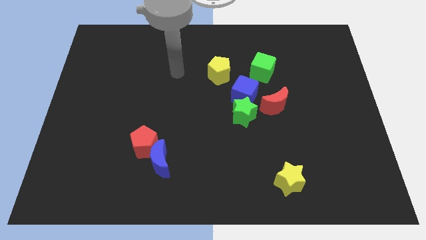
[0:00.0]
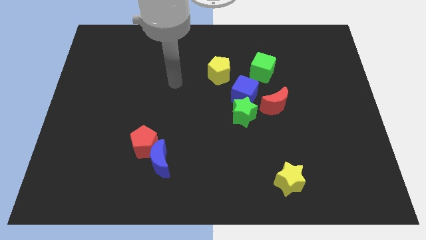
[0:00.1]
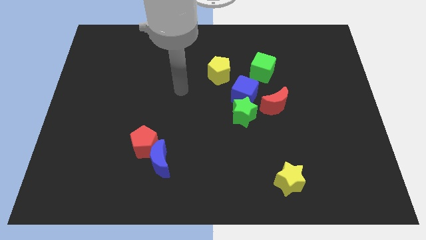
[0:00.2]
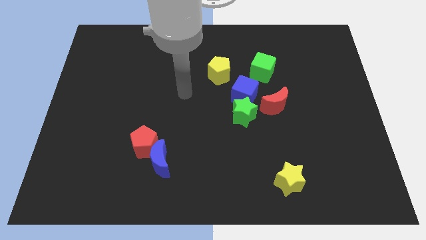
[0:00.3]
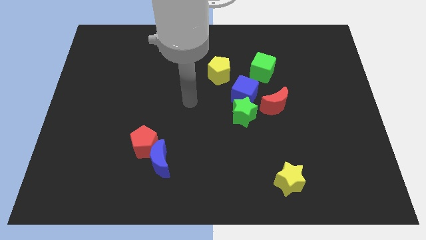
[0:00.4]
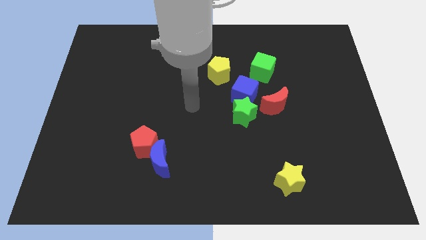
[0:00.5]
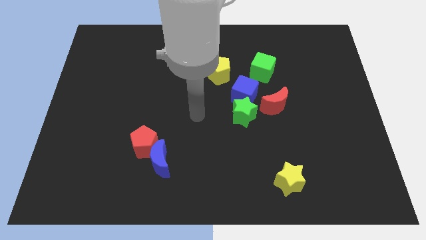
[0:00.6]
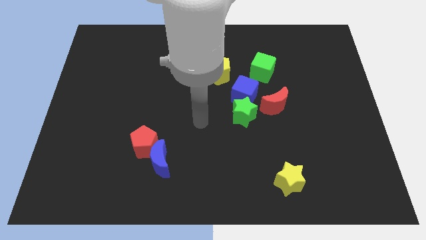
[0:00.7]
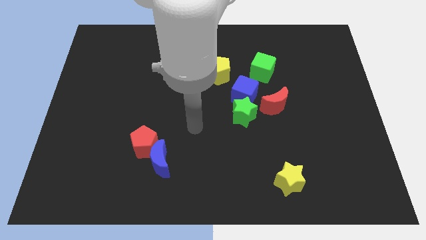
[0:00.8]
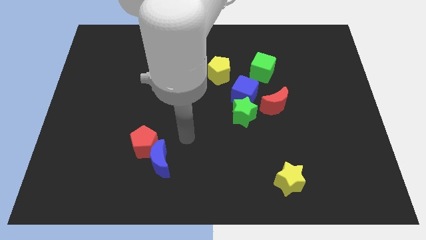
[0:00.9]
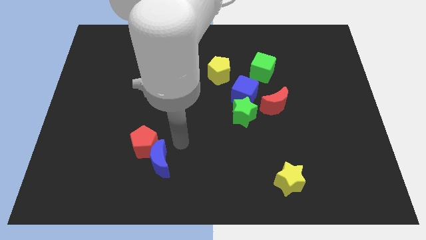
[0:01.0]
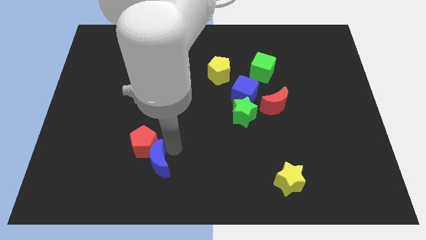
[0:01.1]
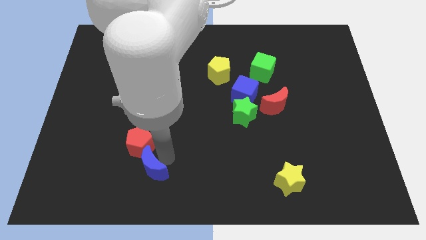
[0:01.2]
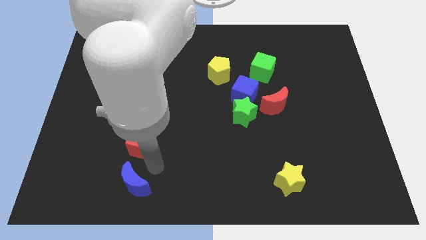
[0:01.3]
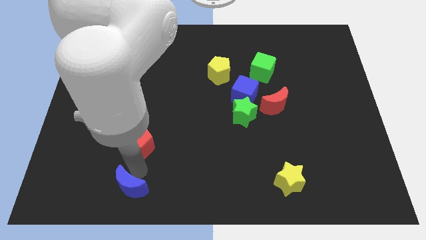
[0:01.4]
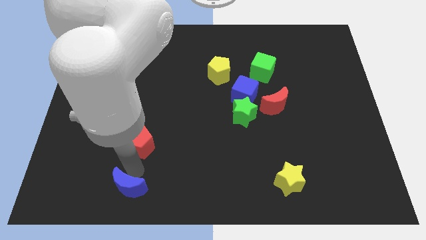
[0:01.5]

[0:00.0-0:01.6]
move the red pentagon away from the blue moon

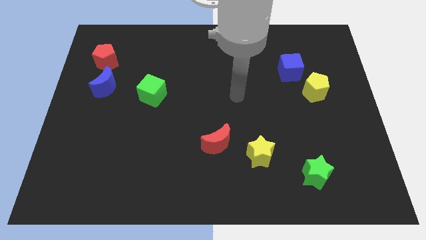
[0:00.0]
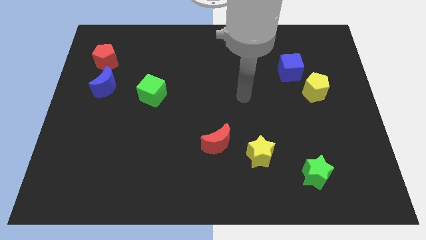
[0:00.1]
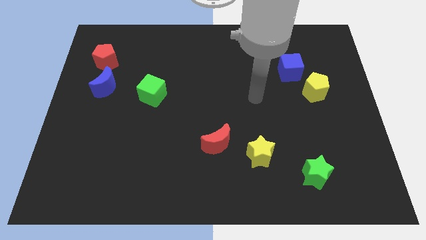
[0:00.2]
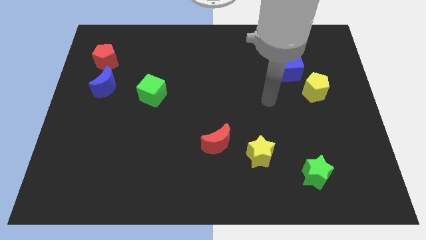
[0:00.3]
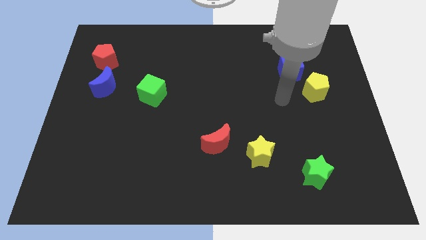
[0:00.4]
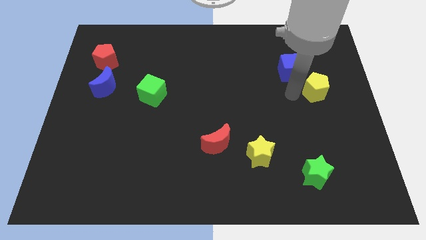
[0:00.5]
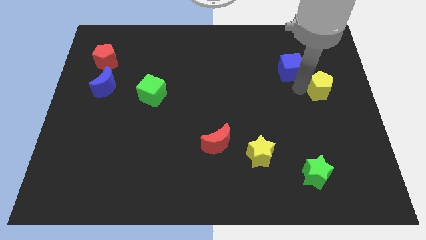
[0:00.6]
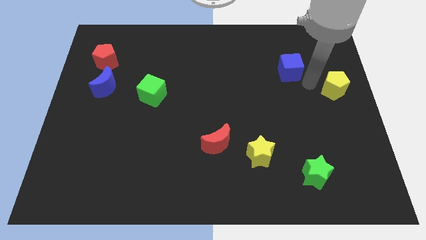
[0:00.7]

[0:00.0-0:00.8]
separate the blue cube from the yellow pentagon

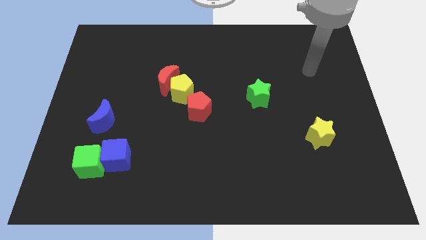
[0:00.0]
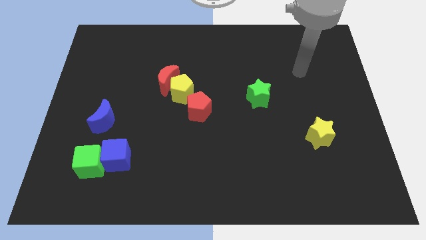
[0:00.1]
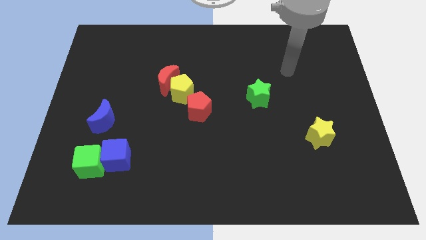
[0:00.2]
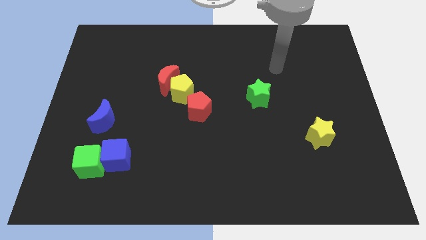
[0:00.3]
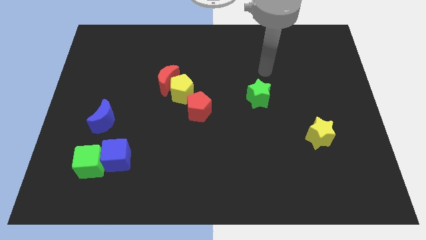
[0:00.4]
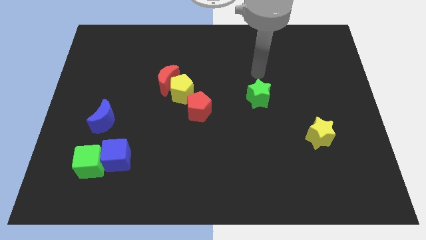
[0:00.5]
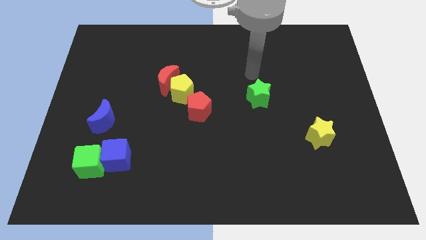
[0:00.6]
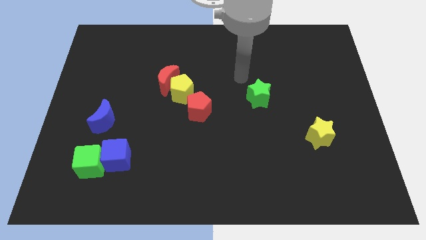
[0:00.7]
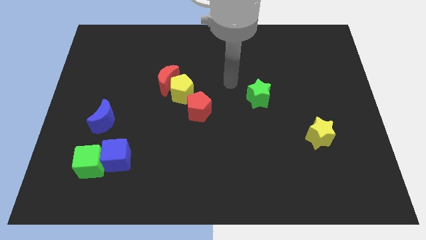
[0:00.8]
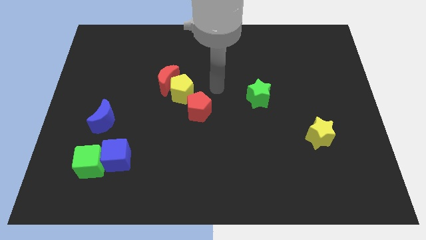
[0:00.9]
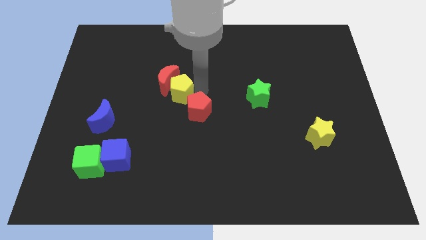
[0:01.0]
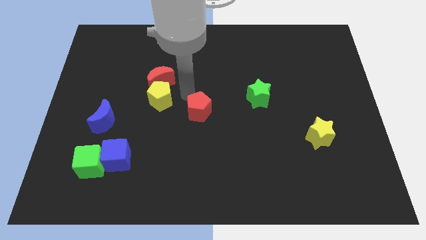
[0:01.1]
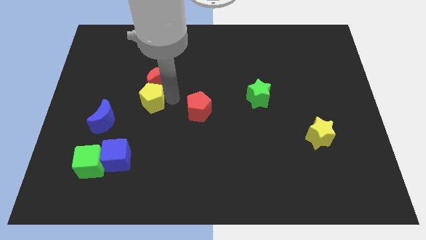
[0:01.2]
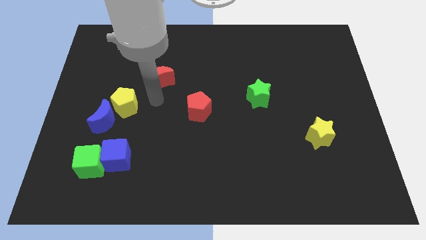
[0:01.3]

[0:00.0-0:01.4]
separate the red moon from the yellow pentagon

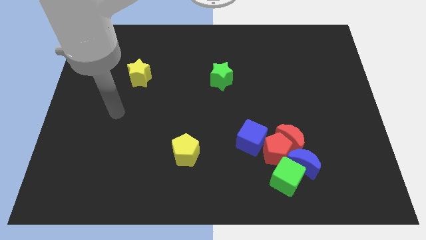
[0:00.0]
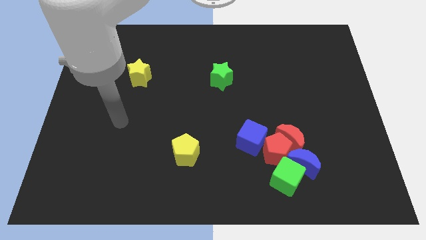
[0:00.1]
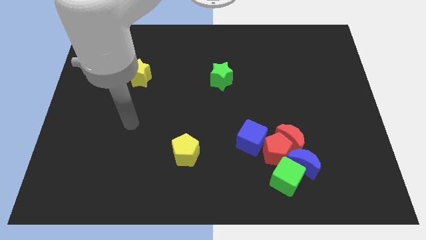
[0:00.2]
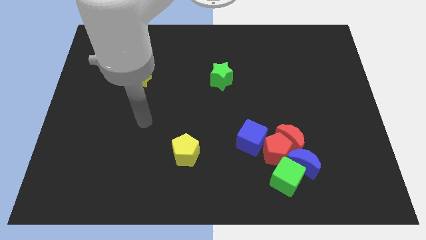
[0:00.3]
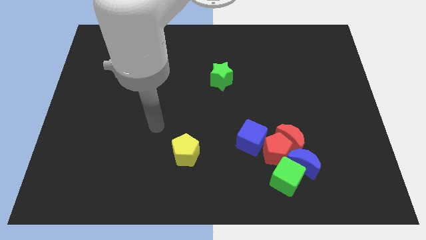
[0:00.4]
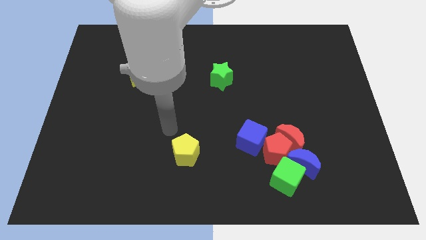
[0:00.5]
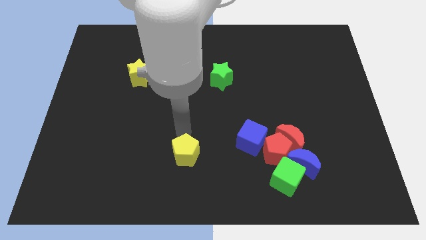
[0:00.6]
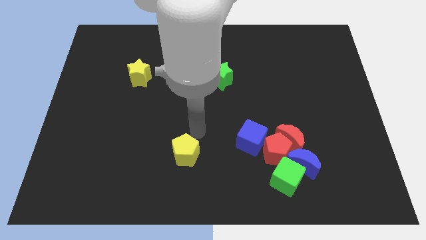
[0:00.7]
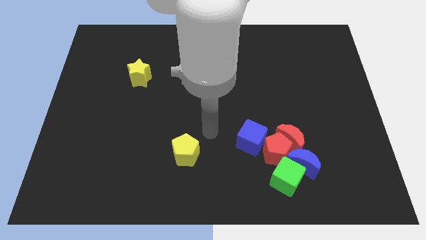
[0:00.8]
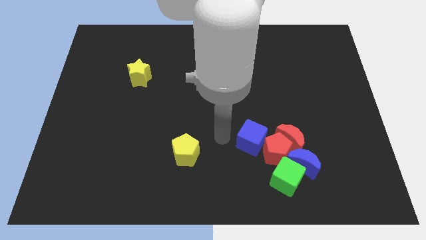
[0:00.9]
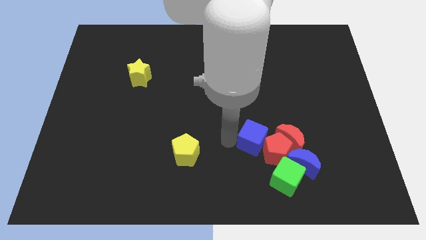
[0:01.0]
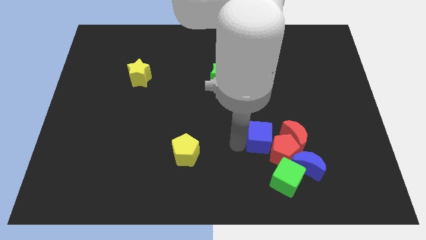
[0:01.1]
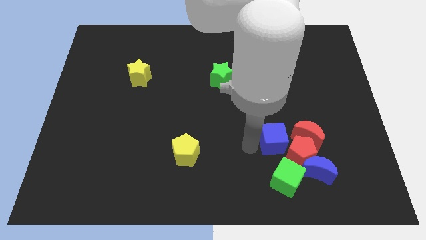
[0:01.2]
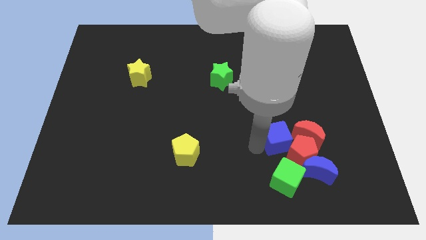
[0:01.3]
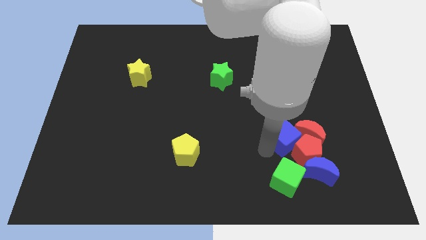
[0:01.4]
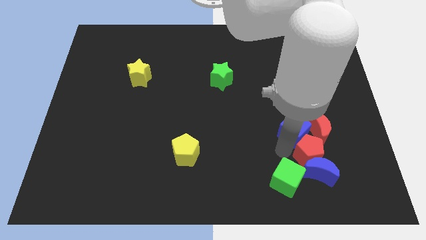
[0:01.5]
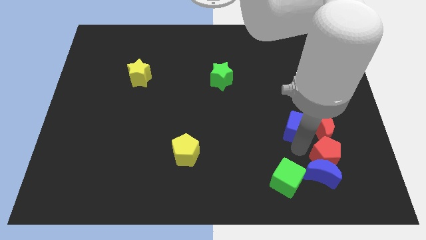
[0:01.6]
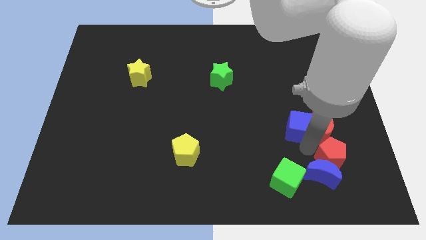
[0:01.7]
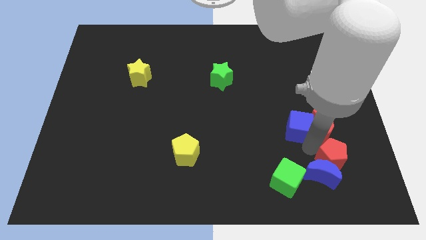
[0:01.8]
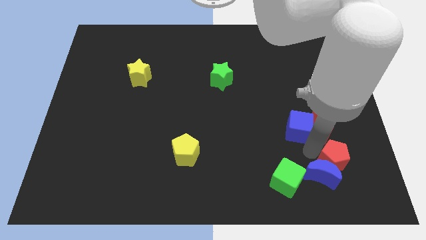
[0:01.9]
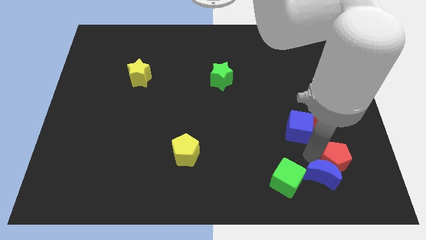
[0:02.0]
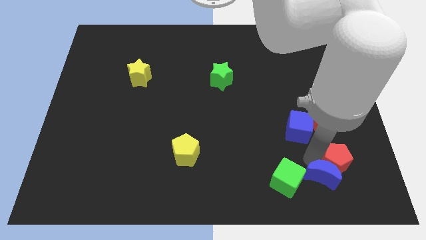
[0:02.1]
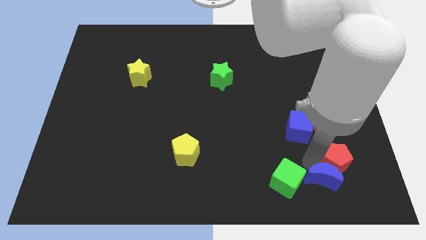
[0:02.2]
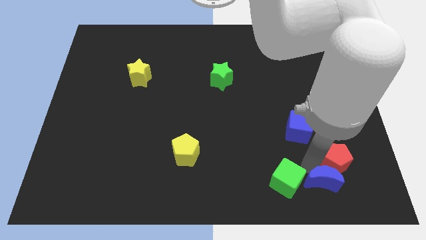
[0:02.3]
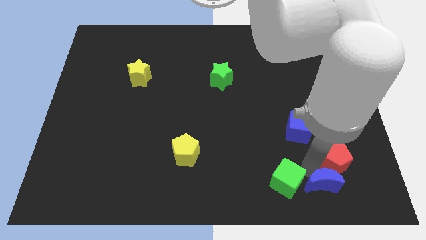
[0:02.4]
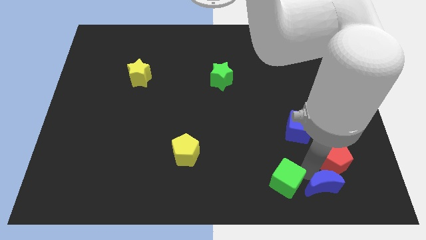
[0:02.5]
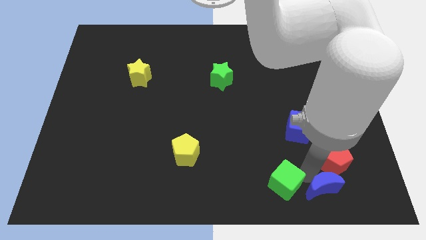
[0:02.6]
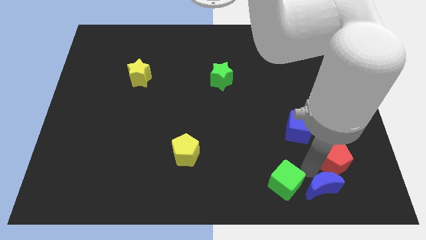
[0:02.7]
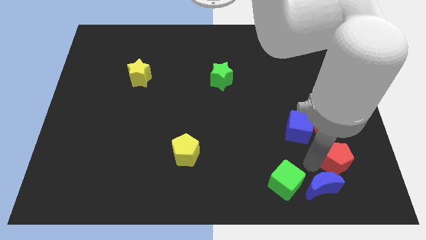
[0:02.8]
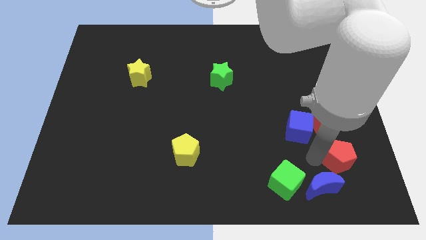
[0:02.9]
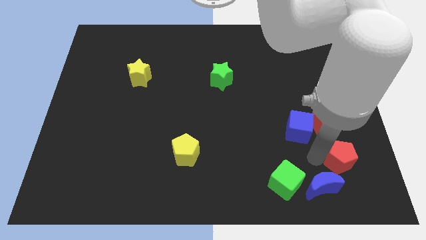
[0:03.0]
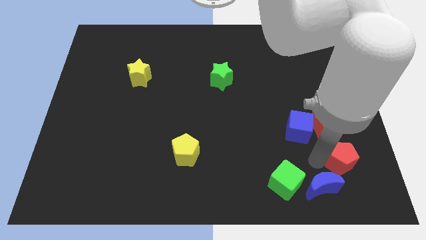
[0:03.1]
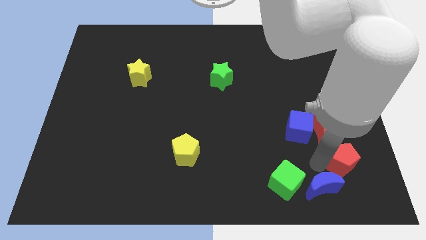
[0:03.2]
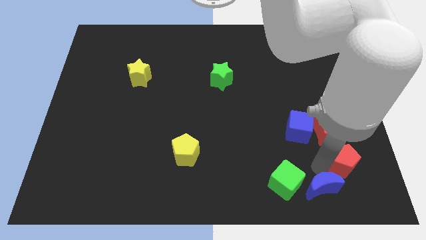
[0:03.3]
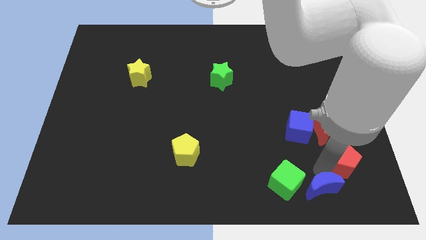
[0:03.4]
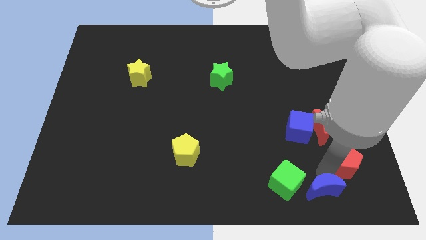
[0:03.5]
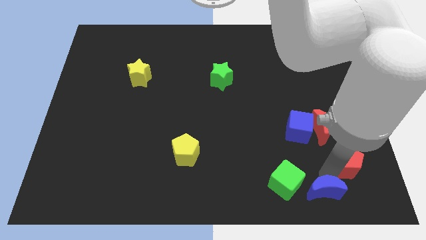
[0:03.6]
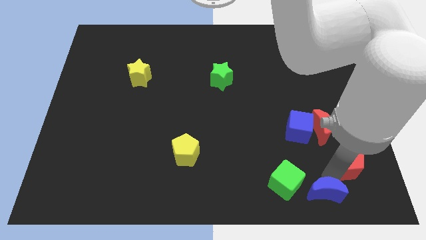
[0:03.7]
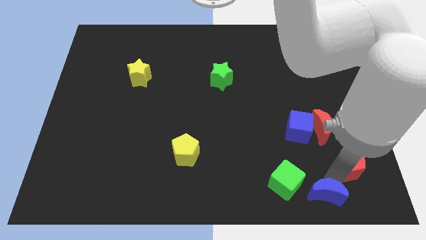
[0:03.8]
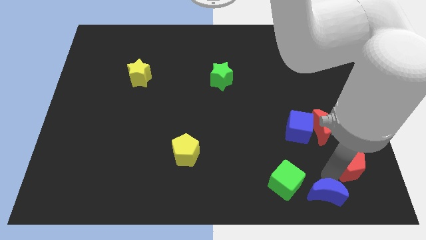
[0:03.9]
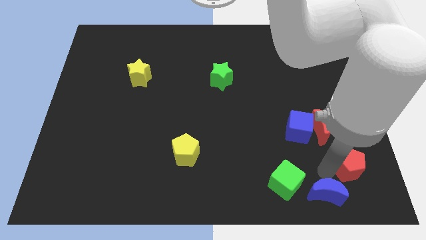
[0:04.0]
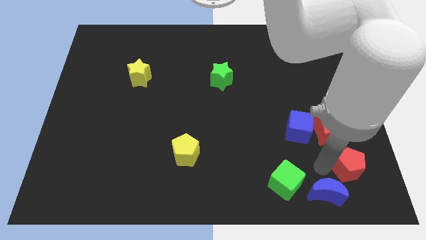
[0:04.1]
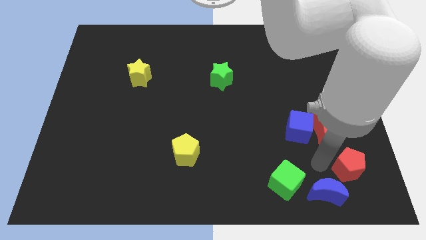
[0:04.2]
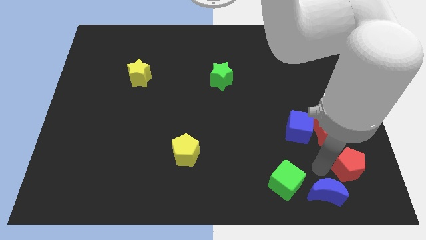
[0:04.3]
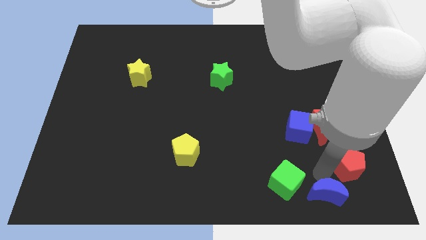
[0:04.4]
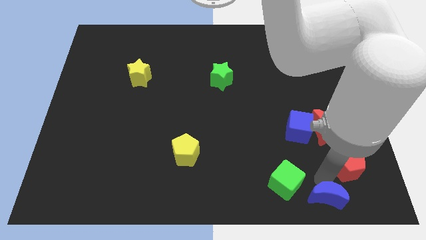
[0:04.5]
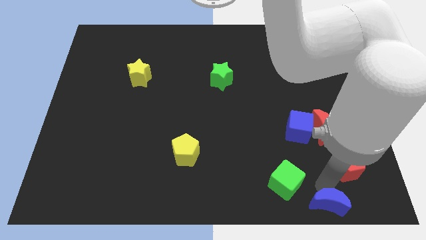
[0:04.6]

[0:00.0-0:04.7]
move the blue moon away from the clump

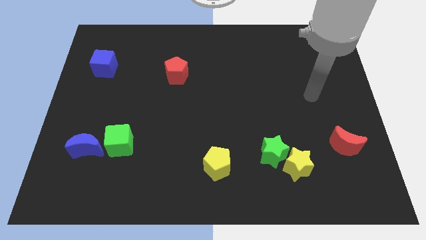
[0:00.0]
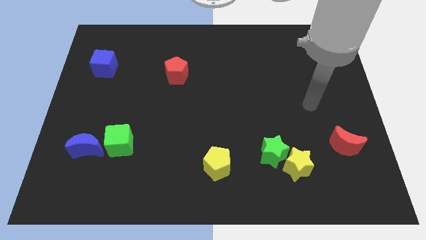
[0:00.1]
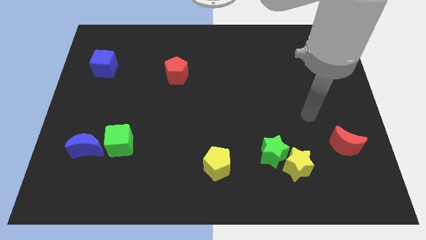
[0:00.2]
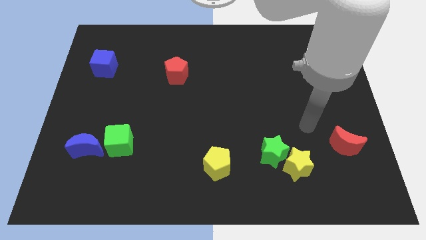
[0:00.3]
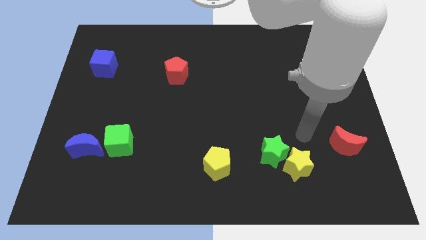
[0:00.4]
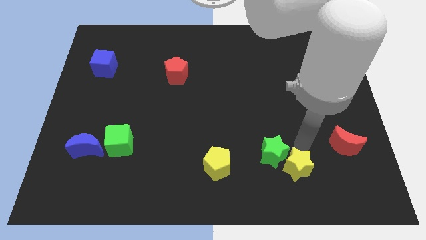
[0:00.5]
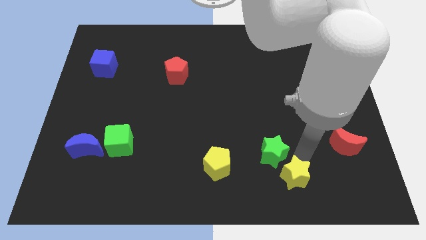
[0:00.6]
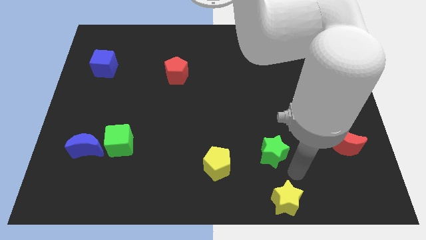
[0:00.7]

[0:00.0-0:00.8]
pull the green star apart from the yellow star

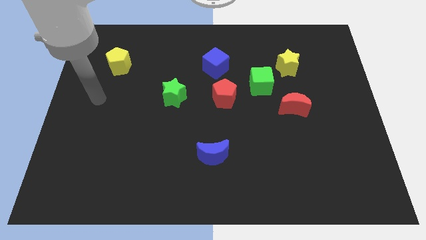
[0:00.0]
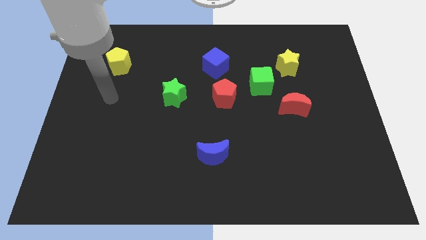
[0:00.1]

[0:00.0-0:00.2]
pull the yellow star apart from the green cube
